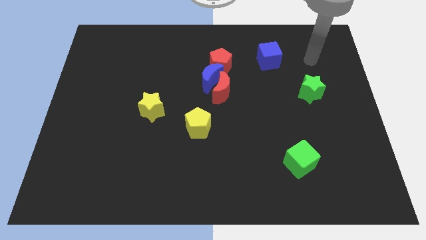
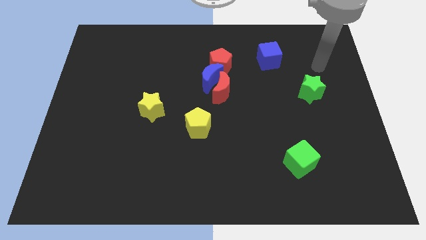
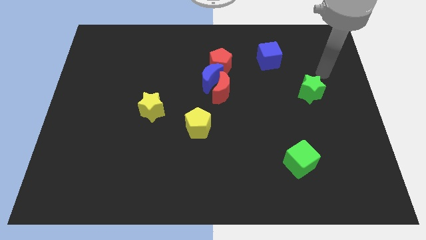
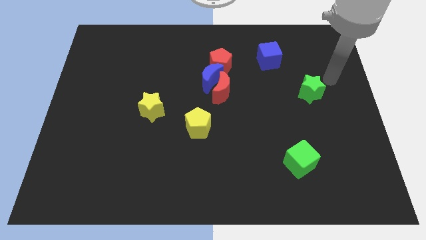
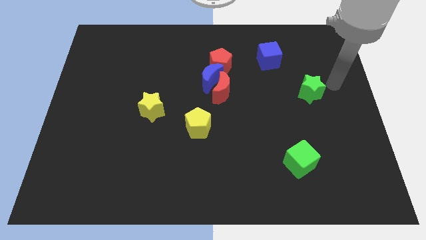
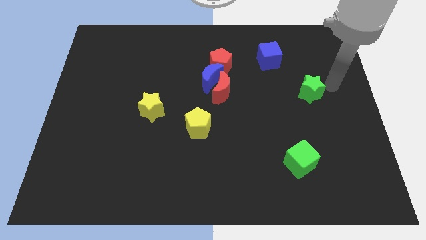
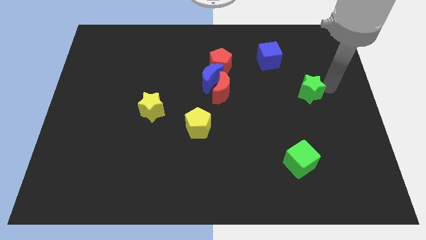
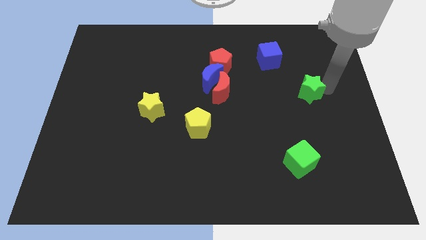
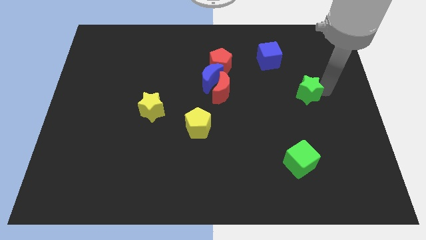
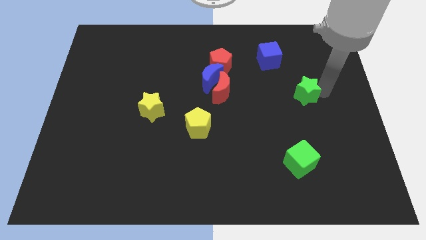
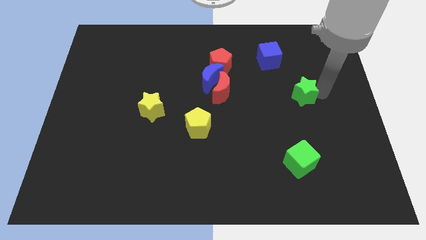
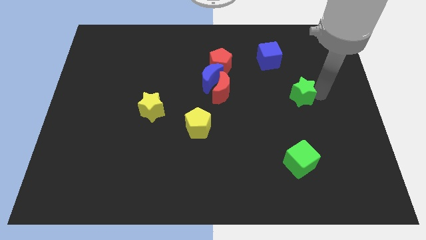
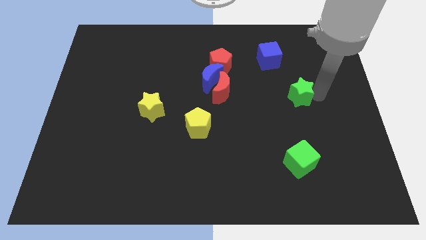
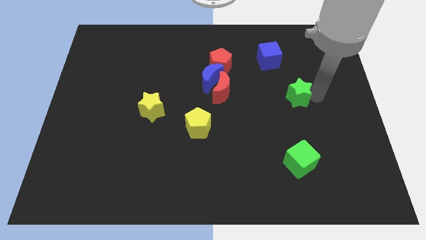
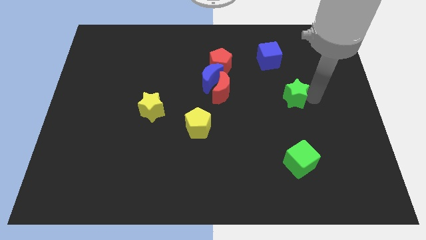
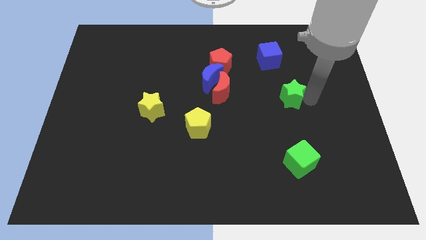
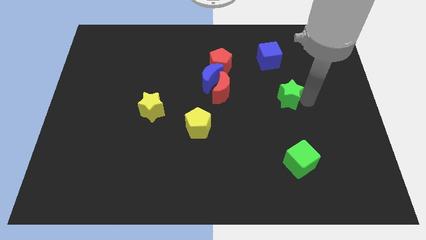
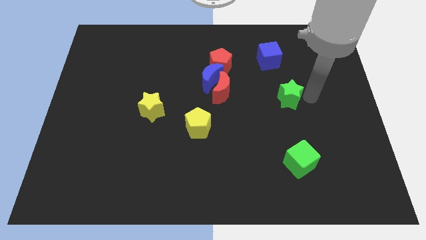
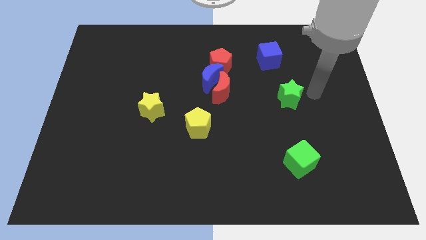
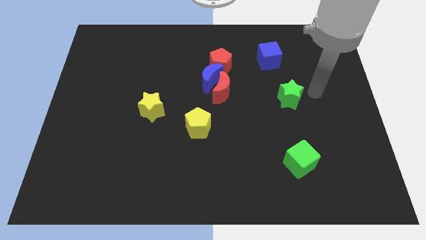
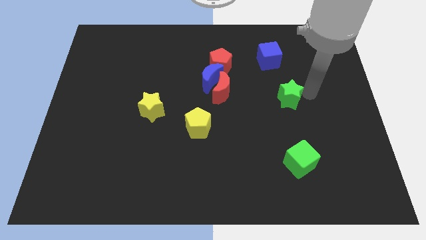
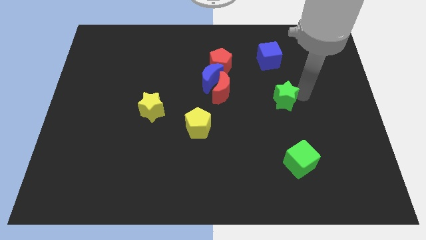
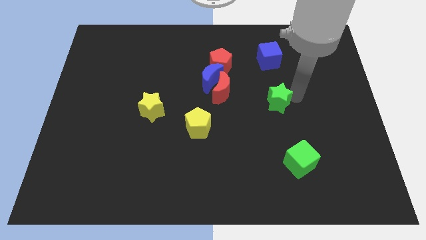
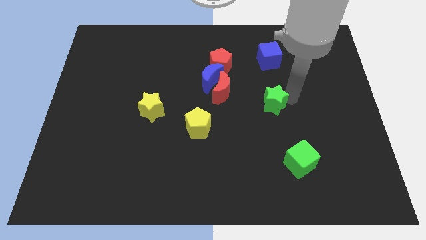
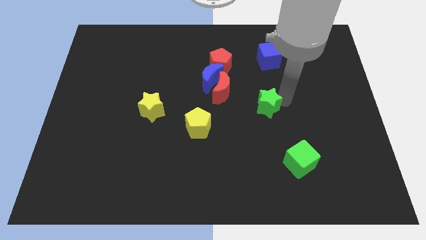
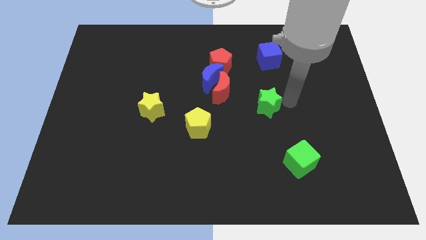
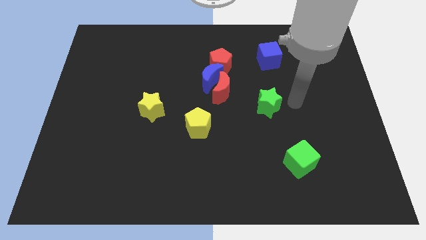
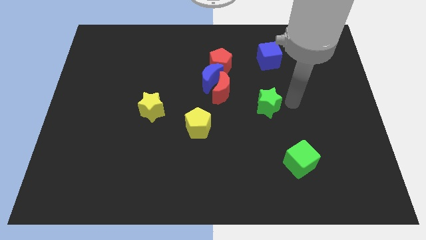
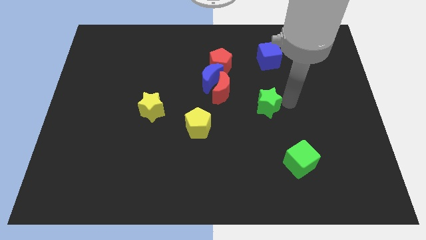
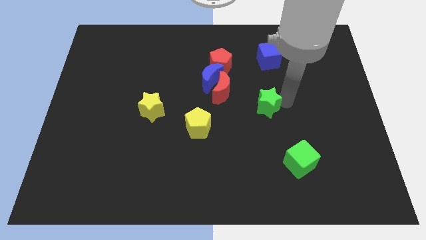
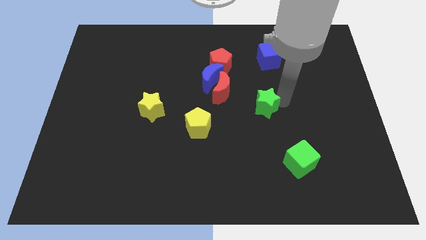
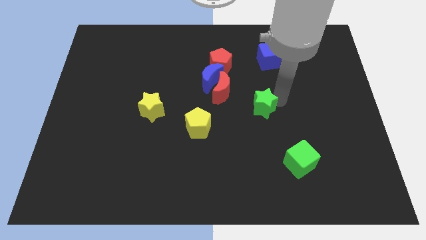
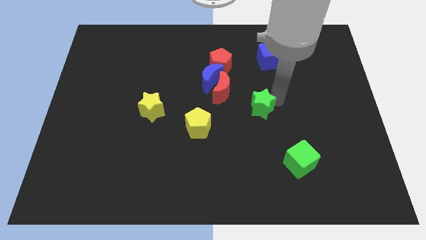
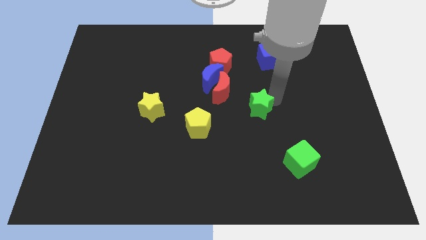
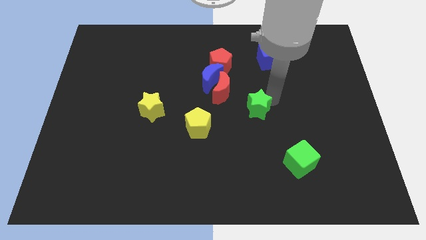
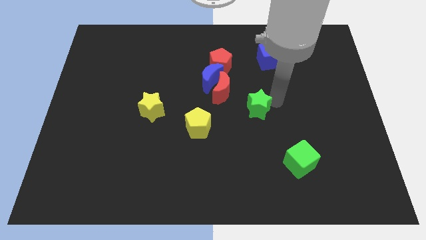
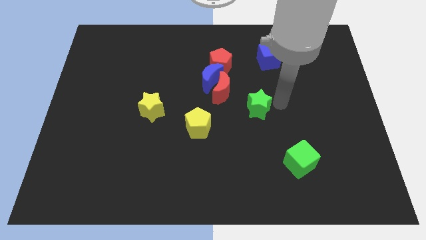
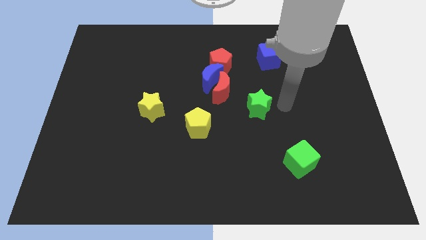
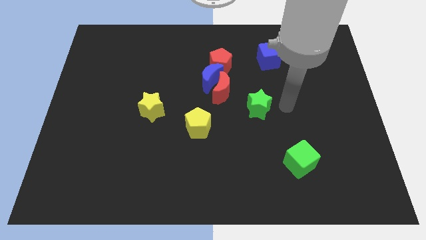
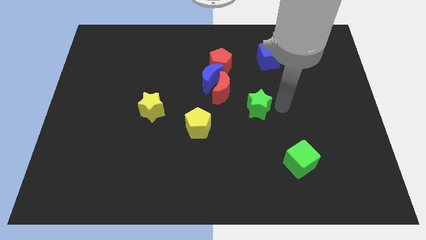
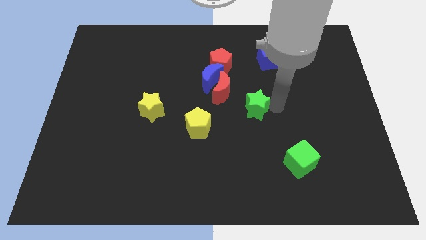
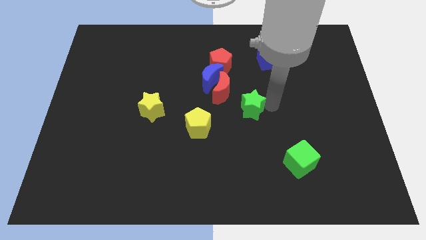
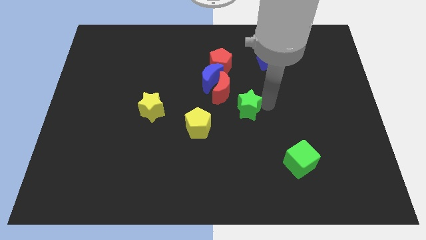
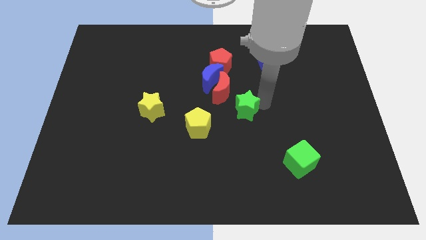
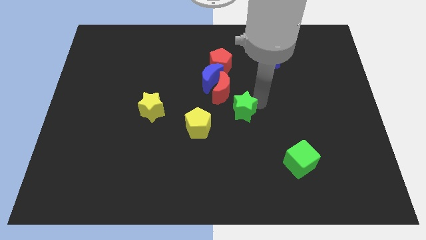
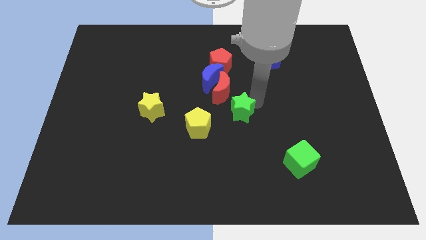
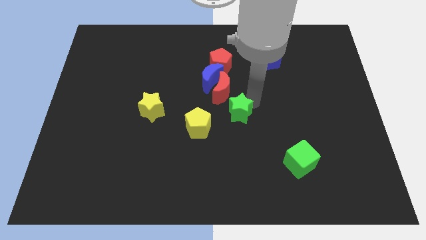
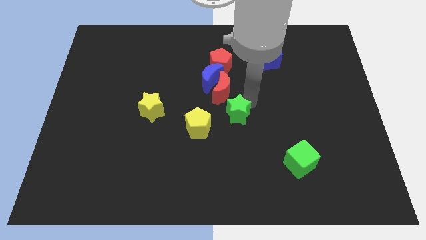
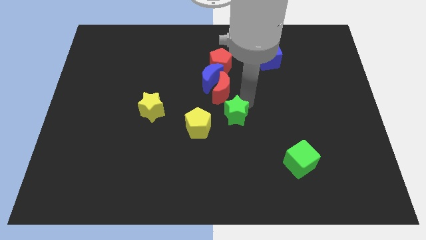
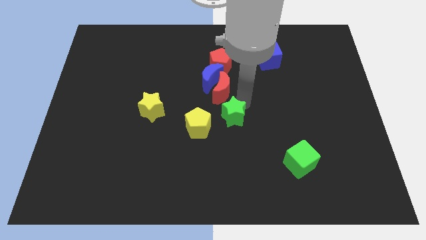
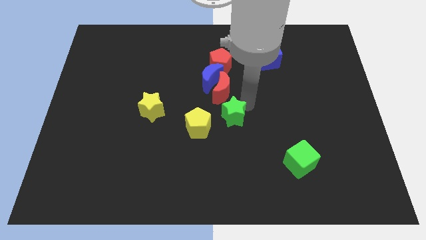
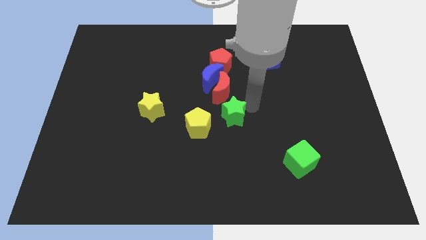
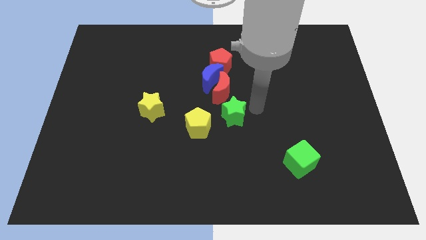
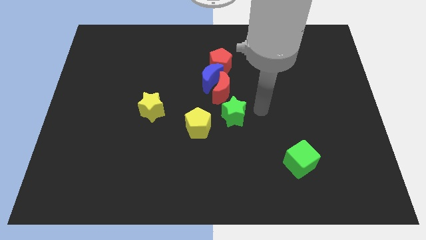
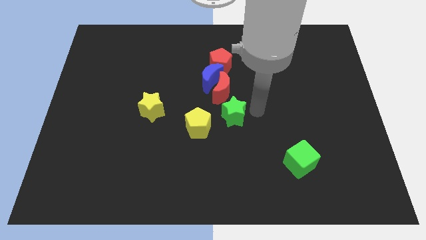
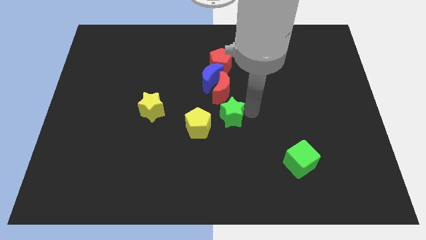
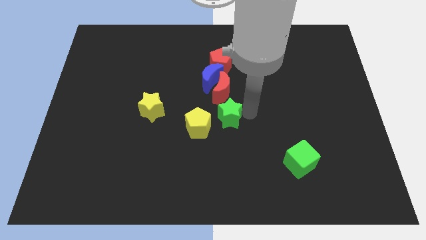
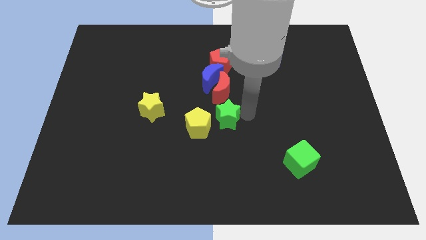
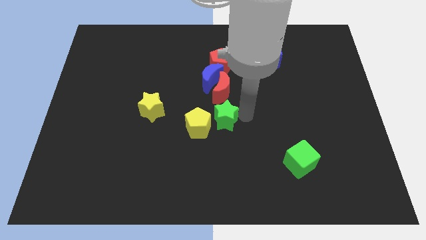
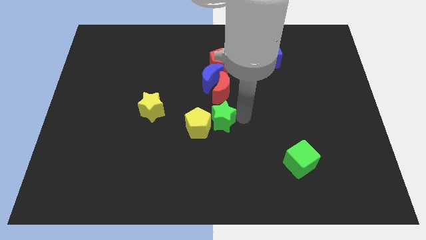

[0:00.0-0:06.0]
slide the green star towards the yellow pentagon
